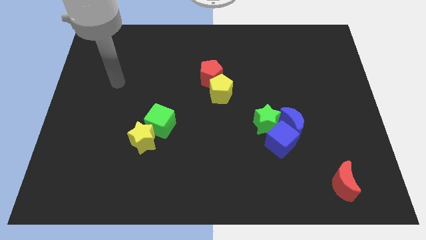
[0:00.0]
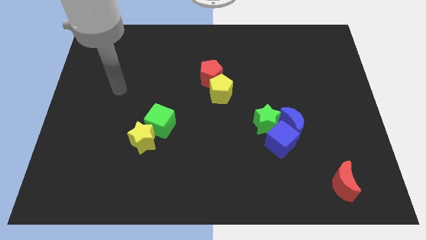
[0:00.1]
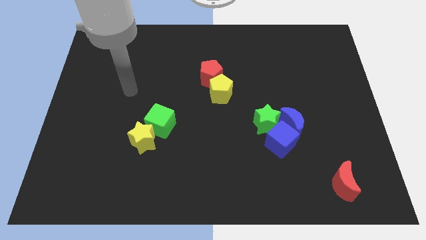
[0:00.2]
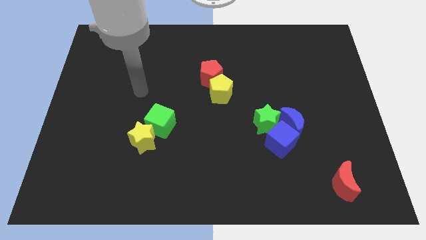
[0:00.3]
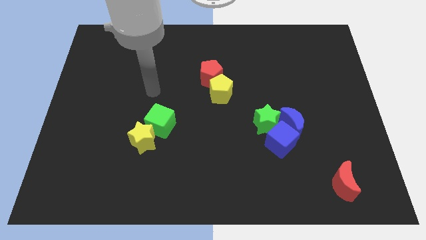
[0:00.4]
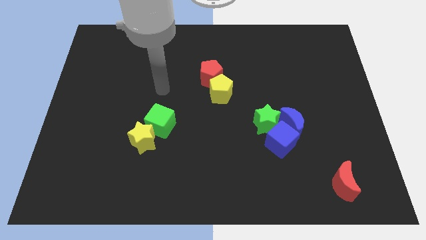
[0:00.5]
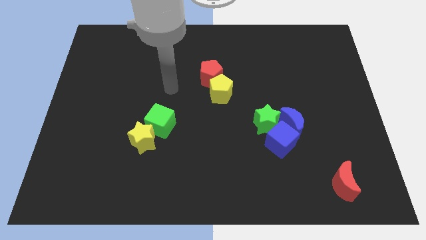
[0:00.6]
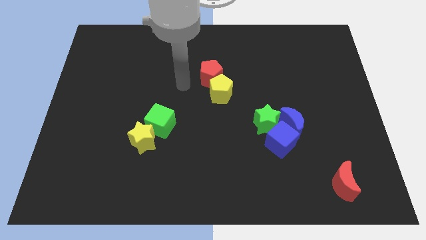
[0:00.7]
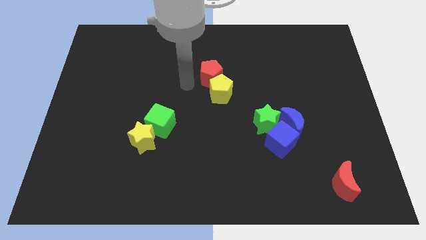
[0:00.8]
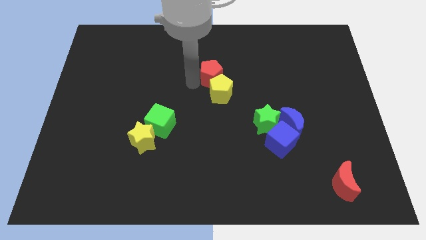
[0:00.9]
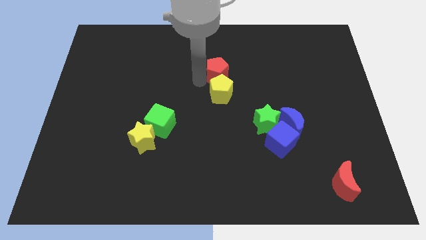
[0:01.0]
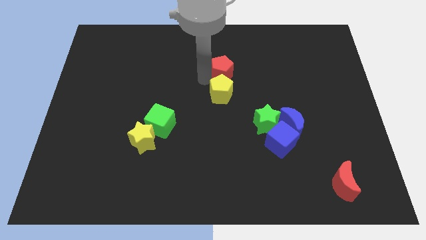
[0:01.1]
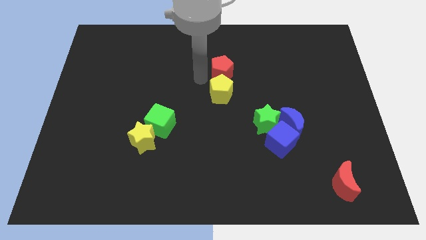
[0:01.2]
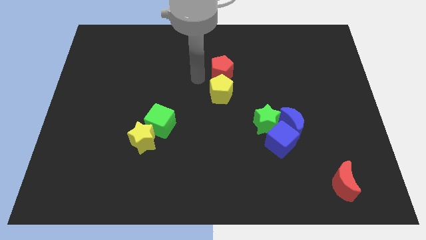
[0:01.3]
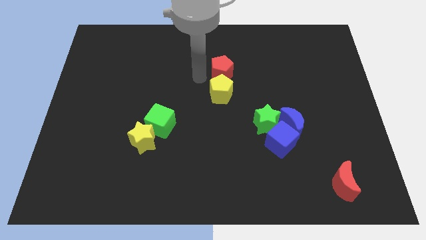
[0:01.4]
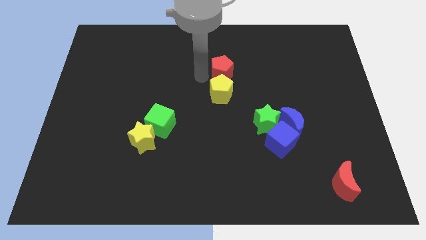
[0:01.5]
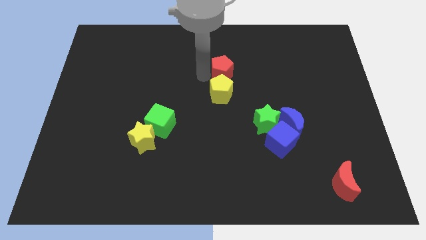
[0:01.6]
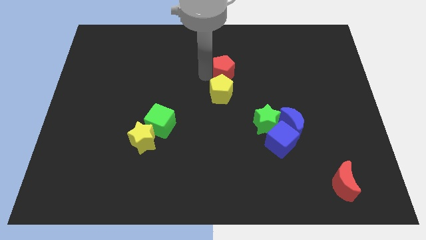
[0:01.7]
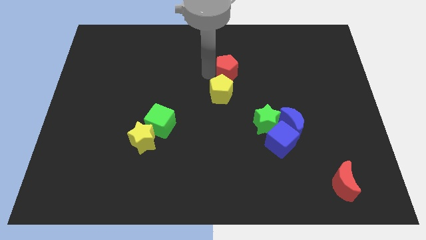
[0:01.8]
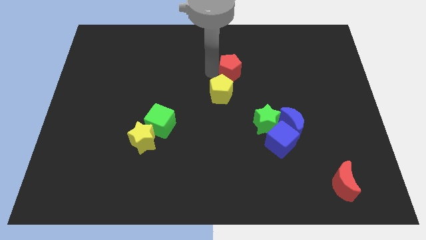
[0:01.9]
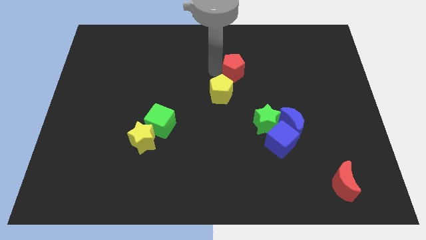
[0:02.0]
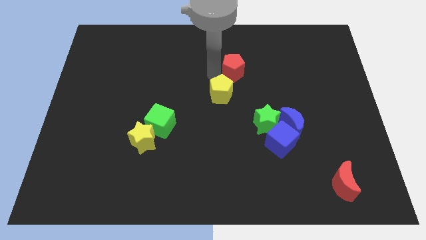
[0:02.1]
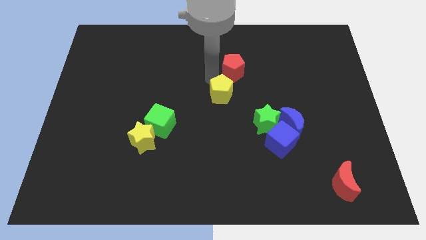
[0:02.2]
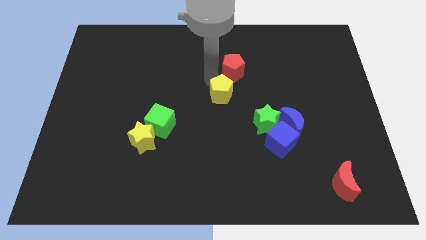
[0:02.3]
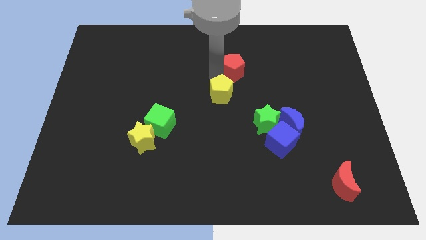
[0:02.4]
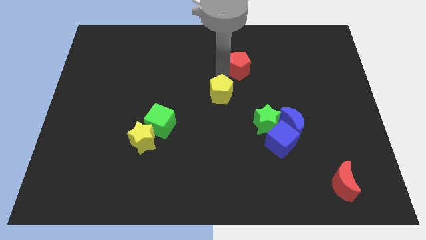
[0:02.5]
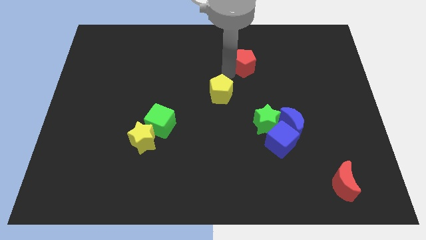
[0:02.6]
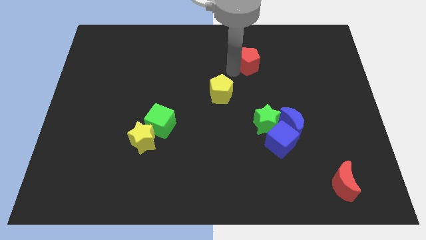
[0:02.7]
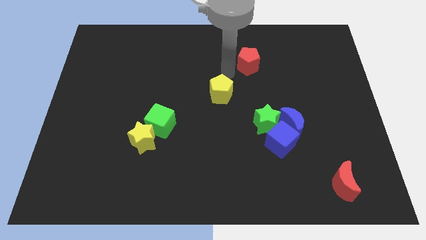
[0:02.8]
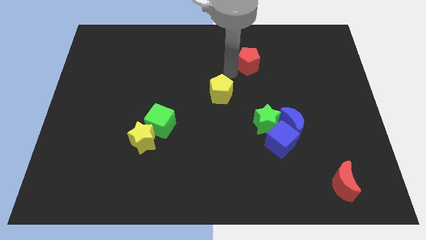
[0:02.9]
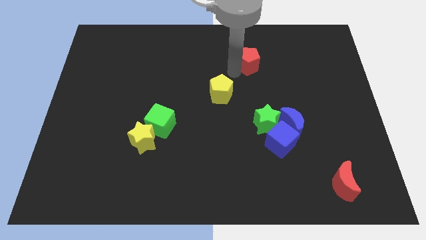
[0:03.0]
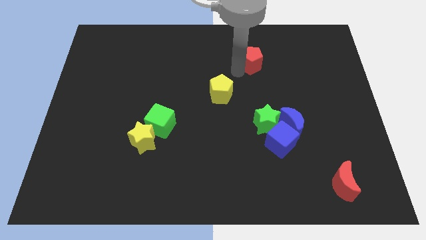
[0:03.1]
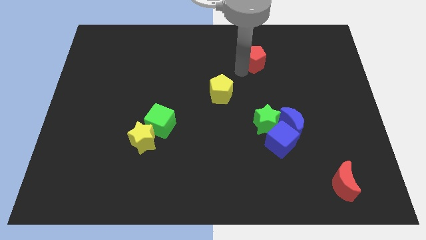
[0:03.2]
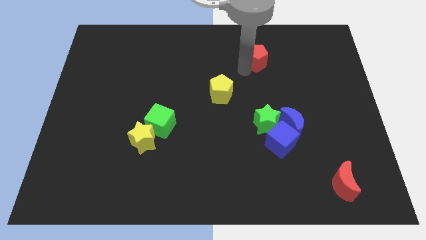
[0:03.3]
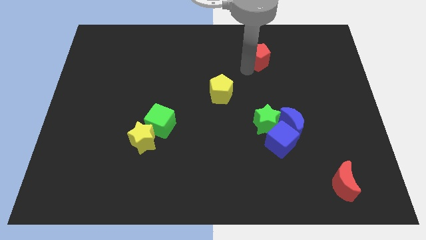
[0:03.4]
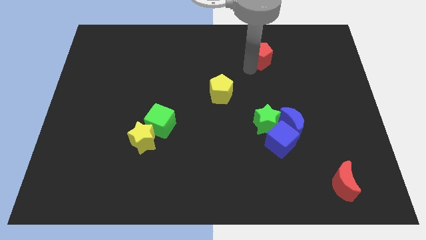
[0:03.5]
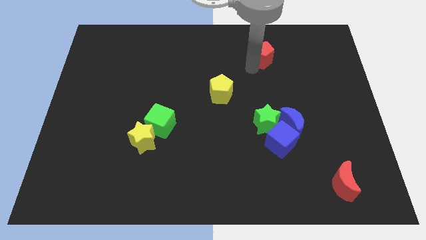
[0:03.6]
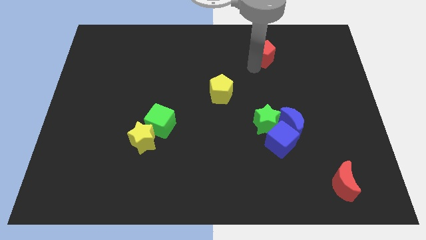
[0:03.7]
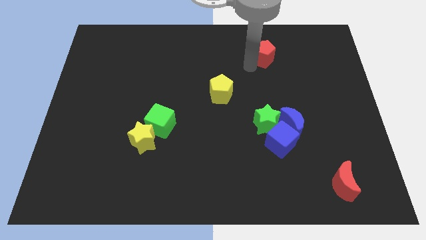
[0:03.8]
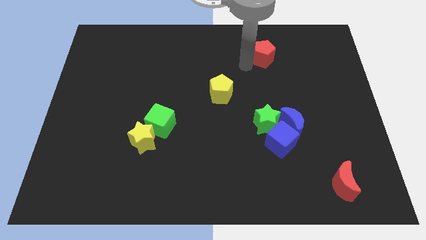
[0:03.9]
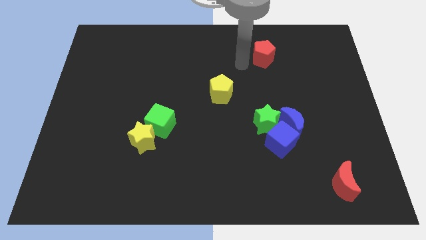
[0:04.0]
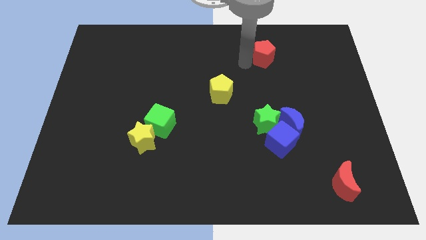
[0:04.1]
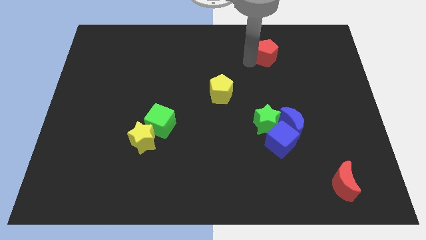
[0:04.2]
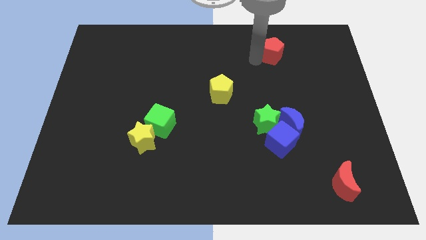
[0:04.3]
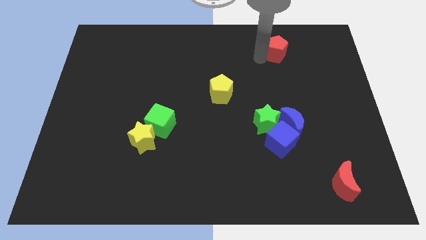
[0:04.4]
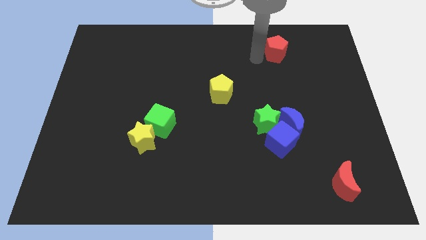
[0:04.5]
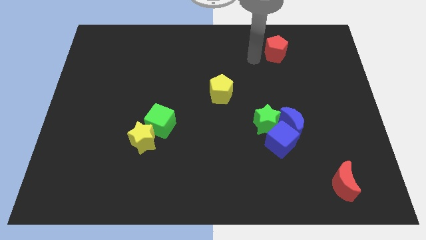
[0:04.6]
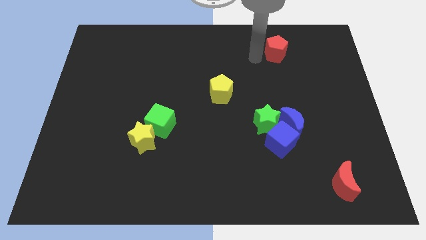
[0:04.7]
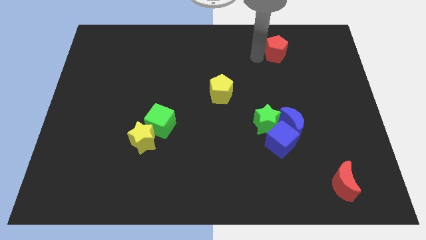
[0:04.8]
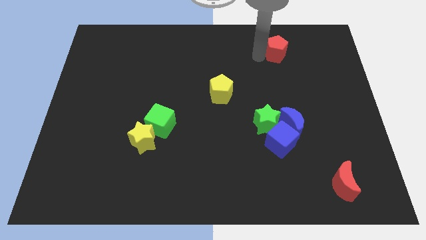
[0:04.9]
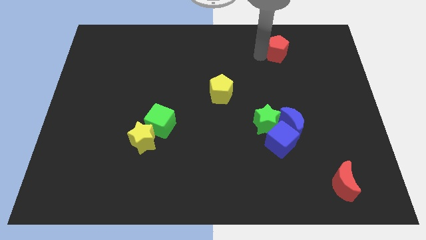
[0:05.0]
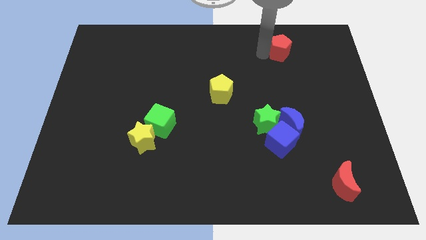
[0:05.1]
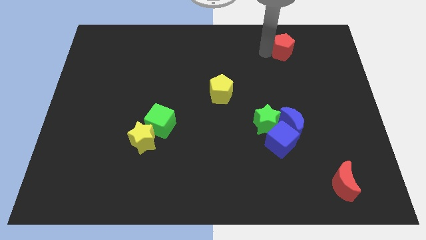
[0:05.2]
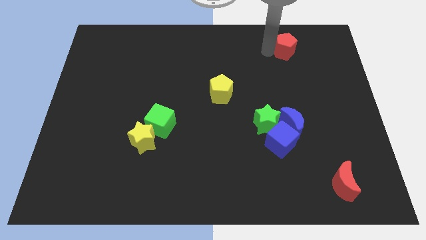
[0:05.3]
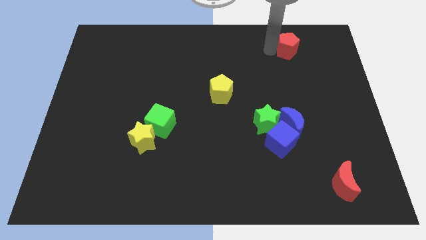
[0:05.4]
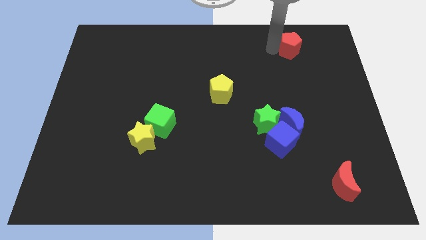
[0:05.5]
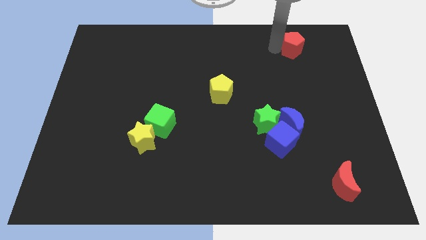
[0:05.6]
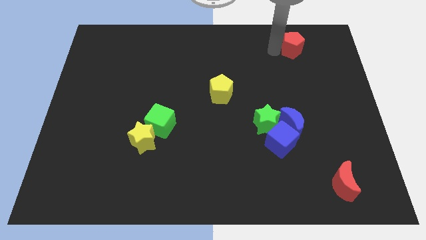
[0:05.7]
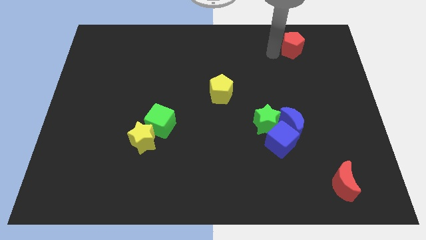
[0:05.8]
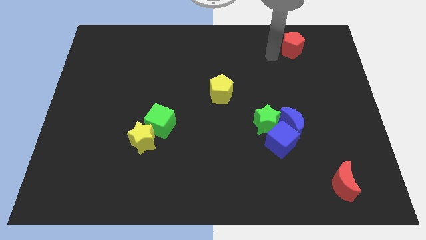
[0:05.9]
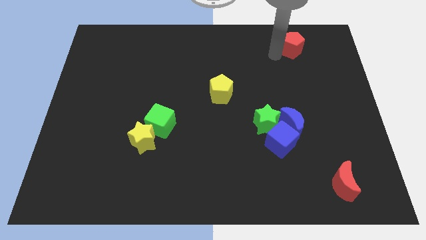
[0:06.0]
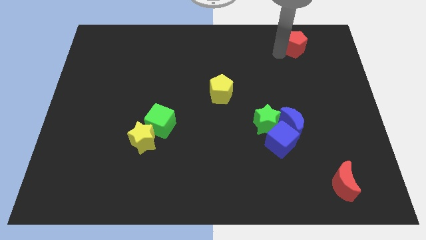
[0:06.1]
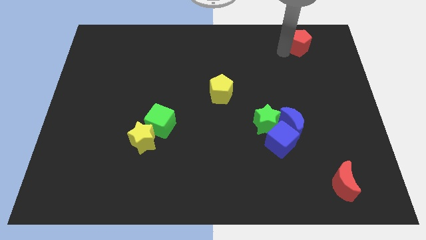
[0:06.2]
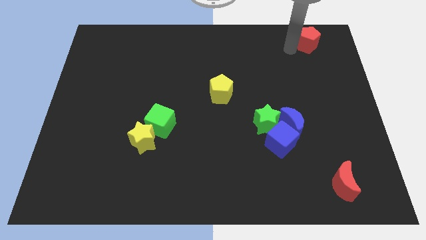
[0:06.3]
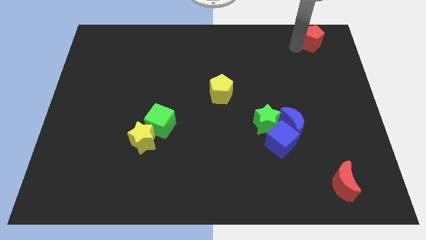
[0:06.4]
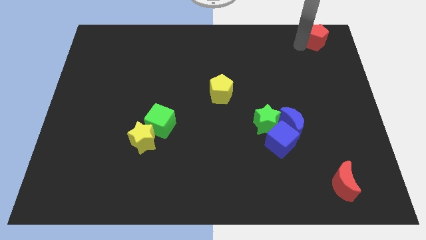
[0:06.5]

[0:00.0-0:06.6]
move the red pentagon to the top right corner
